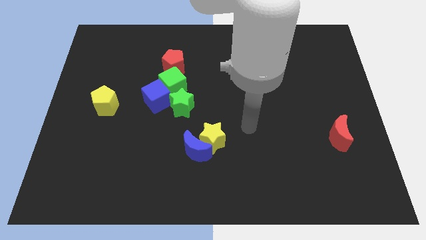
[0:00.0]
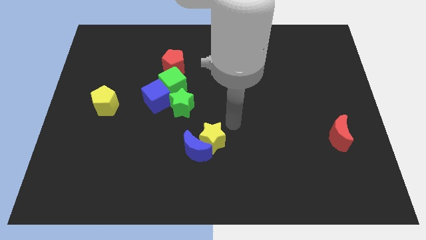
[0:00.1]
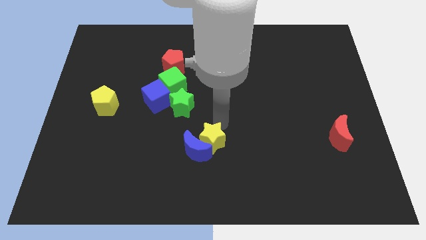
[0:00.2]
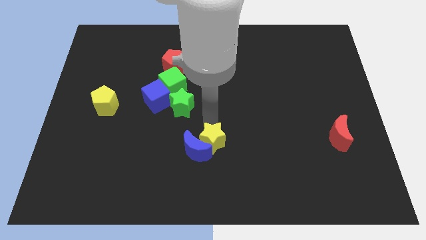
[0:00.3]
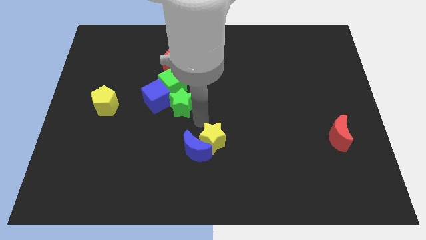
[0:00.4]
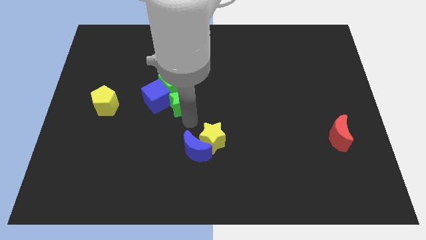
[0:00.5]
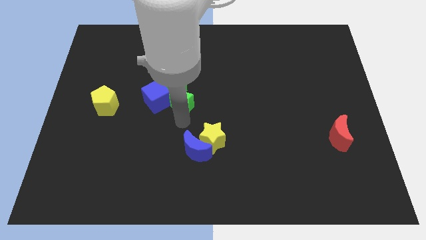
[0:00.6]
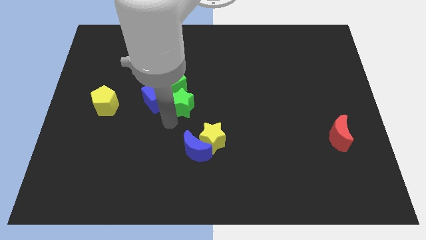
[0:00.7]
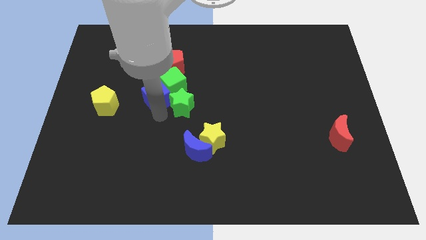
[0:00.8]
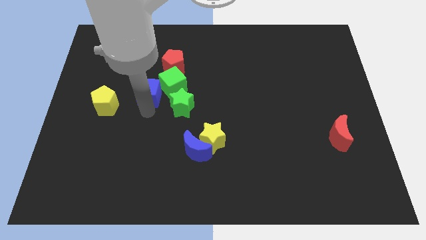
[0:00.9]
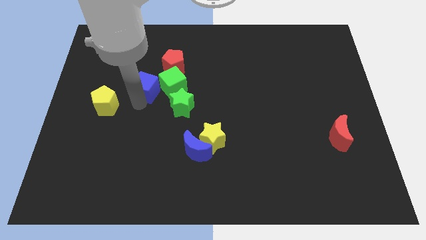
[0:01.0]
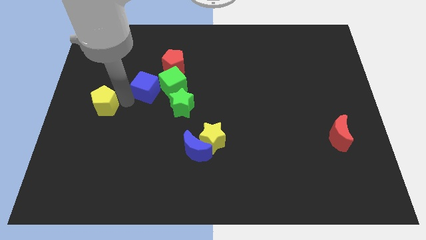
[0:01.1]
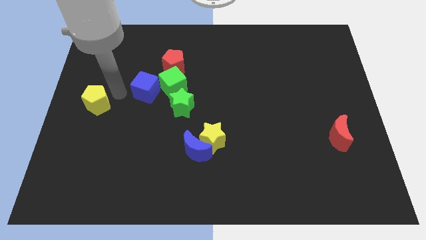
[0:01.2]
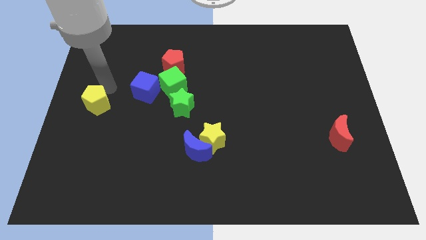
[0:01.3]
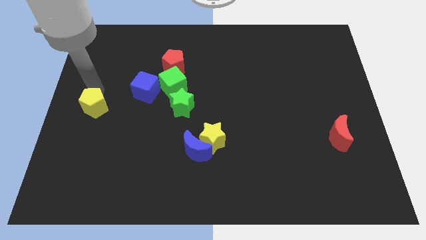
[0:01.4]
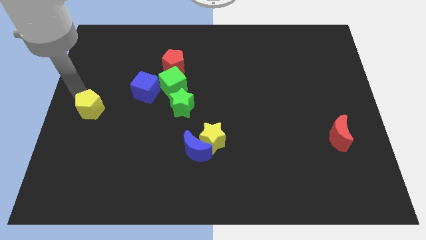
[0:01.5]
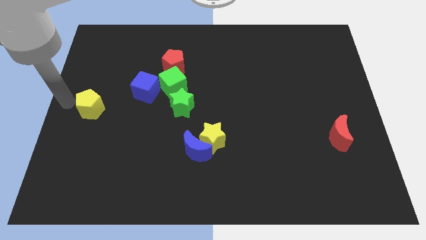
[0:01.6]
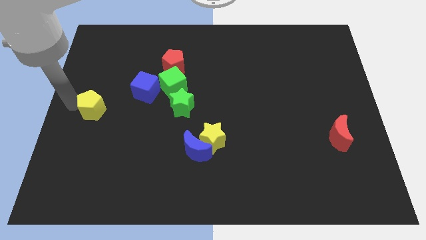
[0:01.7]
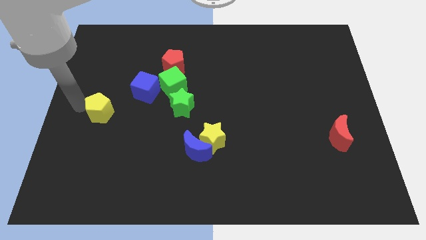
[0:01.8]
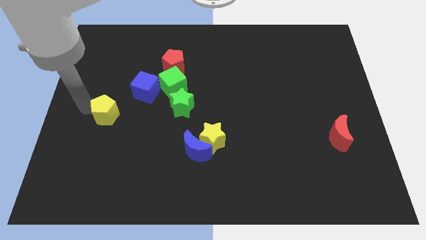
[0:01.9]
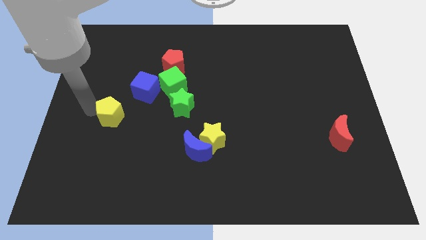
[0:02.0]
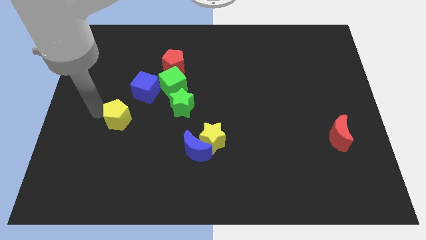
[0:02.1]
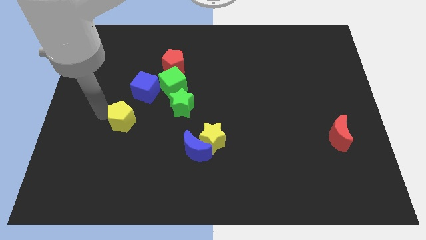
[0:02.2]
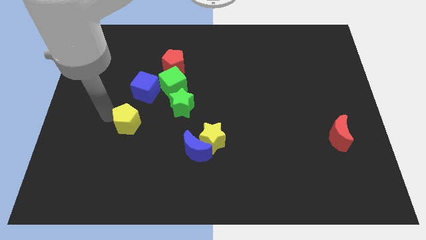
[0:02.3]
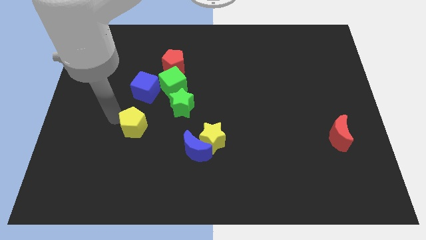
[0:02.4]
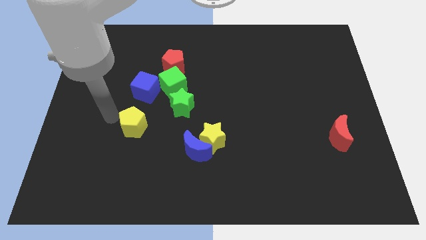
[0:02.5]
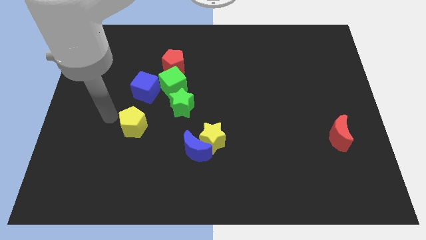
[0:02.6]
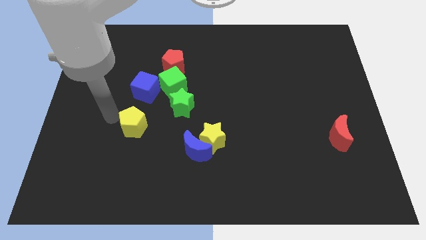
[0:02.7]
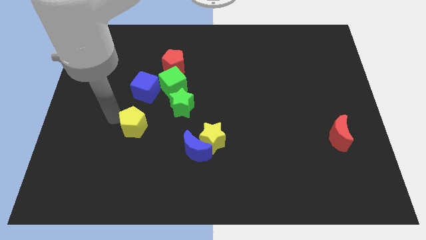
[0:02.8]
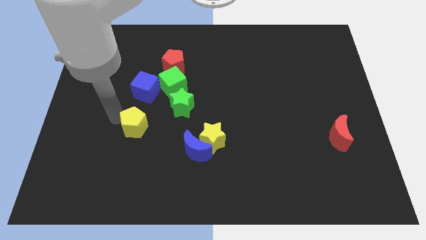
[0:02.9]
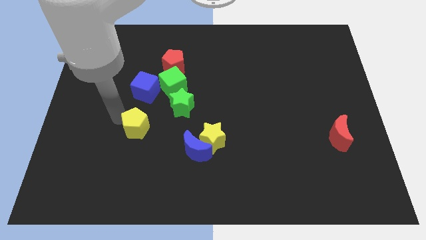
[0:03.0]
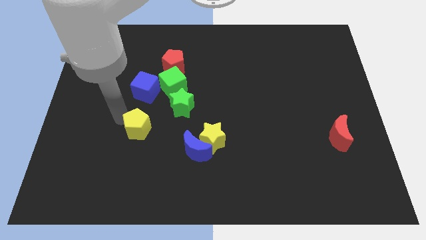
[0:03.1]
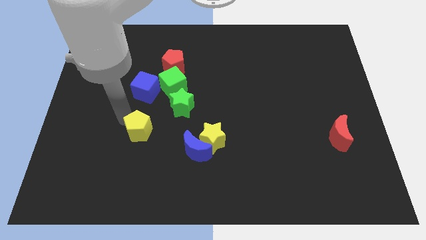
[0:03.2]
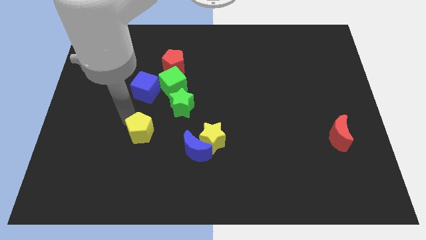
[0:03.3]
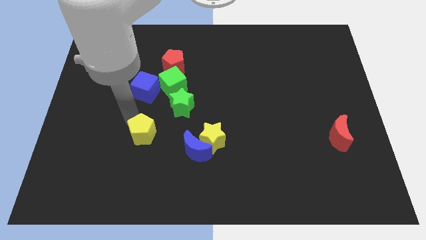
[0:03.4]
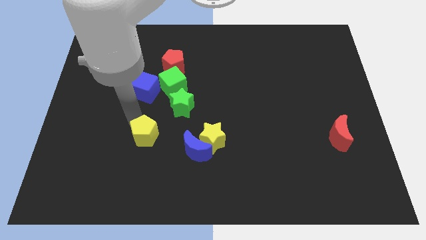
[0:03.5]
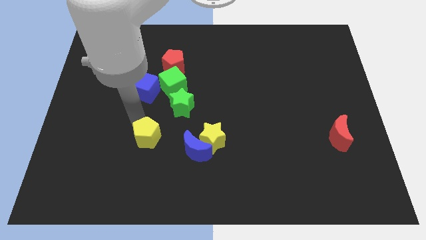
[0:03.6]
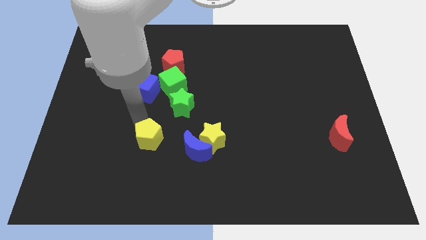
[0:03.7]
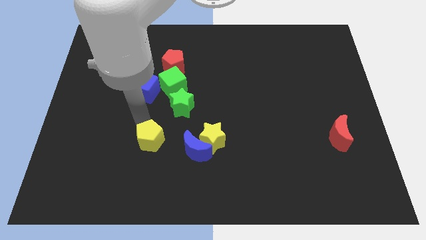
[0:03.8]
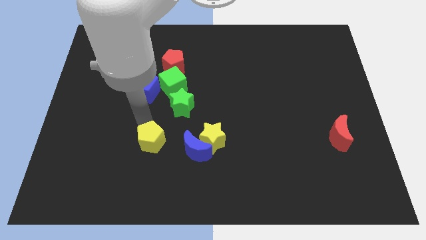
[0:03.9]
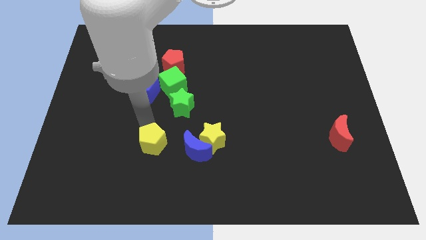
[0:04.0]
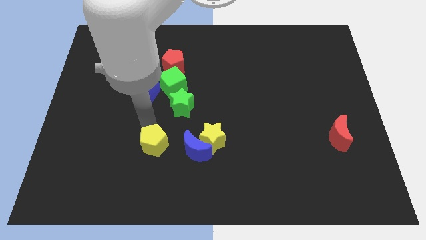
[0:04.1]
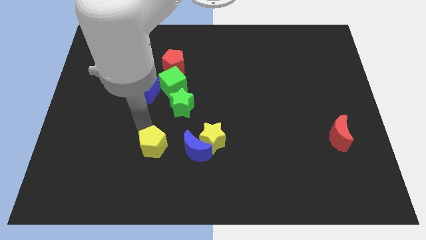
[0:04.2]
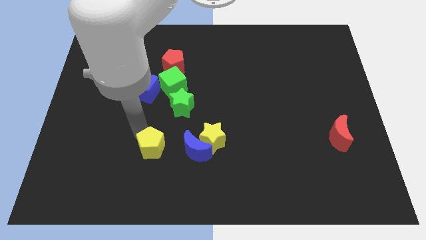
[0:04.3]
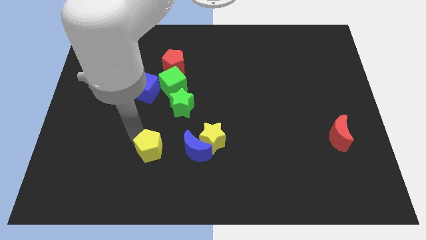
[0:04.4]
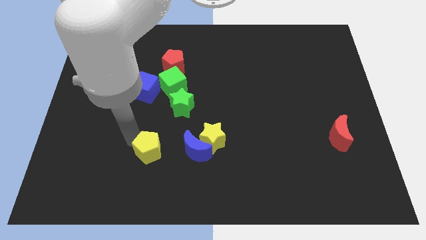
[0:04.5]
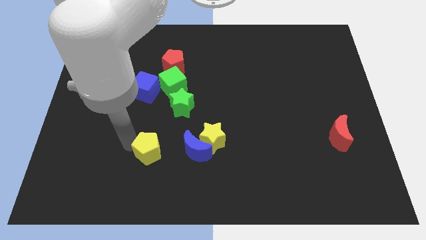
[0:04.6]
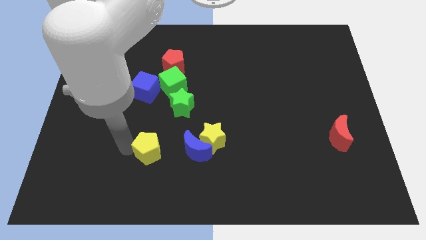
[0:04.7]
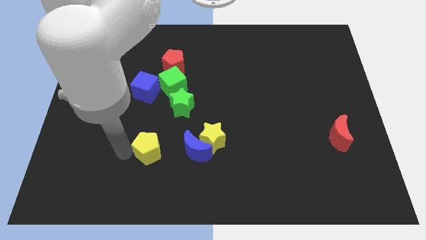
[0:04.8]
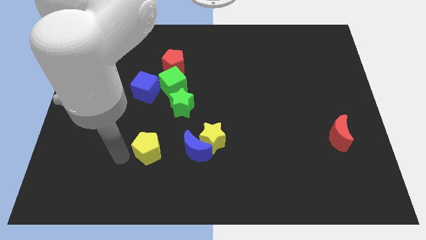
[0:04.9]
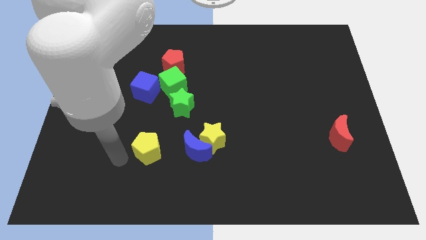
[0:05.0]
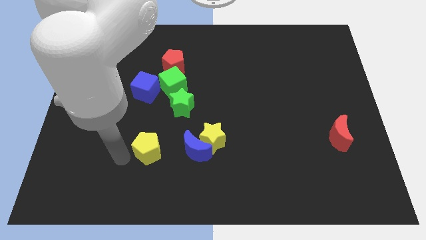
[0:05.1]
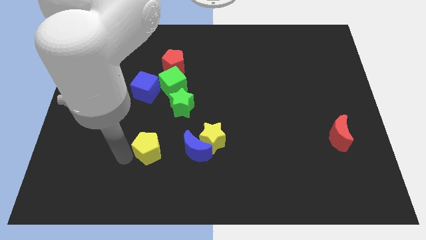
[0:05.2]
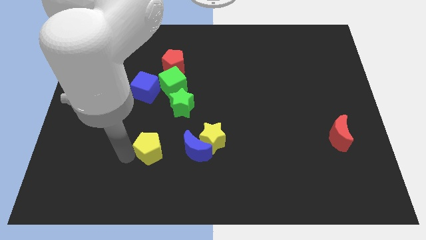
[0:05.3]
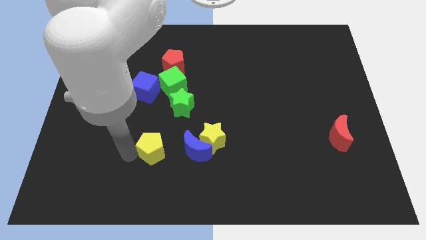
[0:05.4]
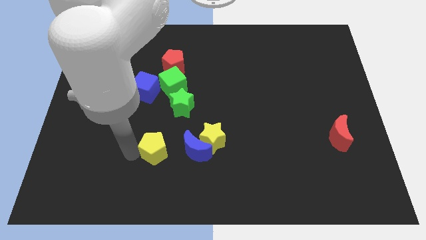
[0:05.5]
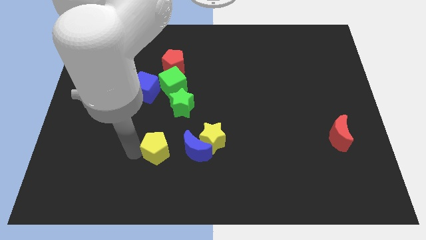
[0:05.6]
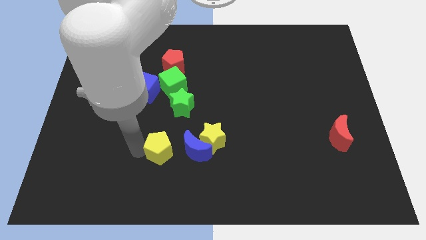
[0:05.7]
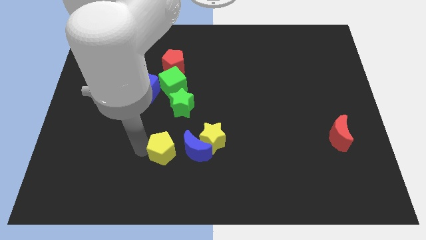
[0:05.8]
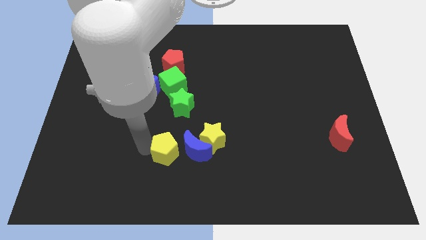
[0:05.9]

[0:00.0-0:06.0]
move the yellow pentagon towards the blue moon
